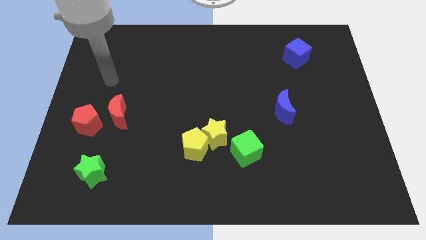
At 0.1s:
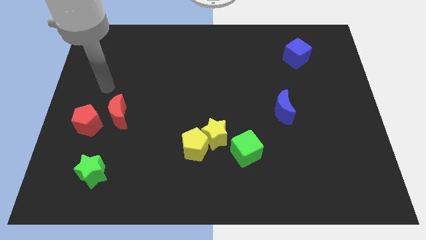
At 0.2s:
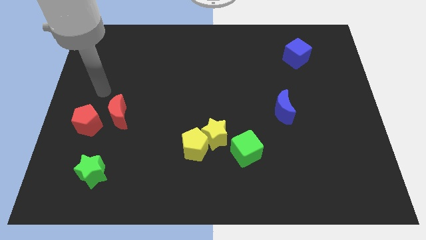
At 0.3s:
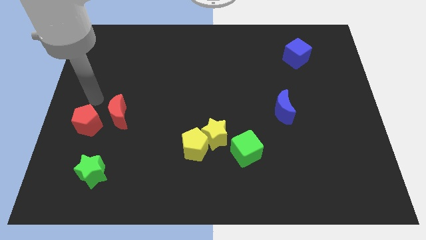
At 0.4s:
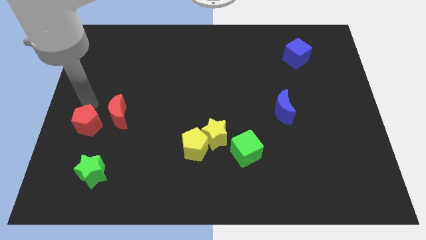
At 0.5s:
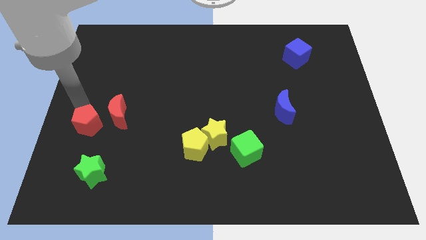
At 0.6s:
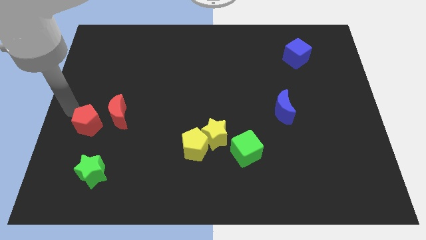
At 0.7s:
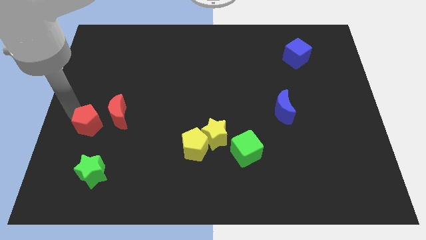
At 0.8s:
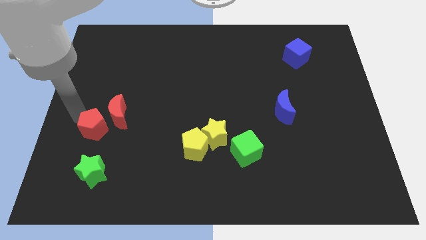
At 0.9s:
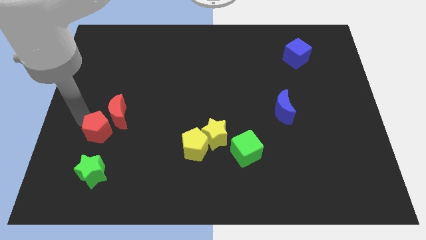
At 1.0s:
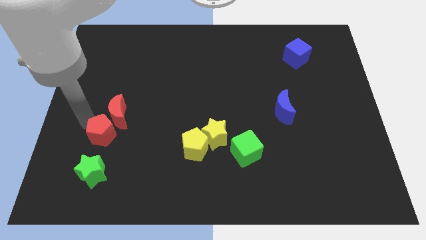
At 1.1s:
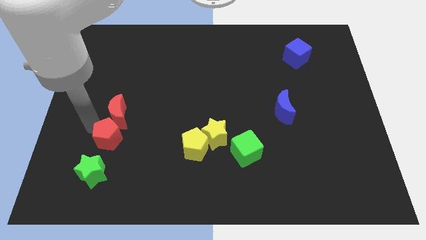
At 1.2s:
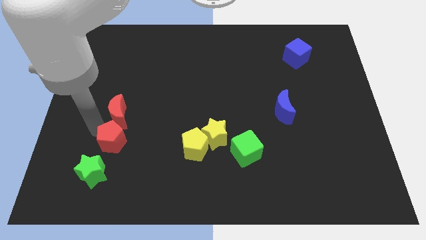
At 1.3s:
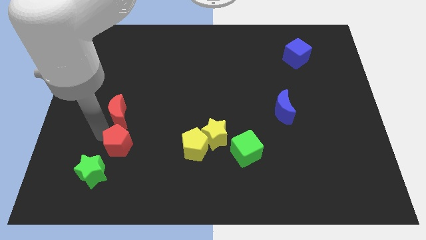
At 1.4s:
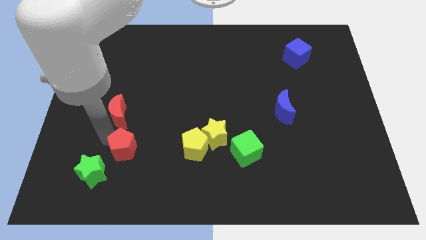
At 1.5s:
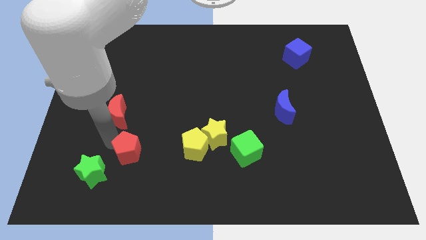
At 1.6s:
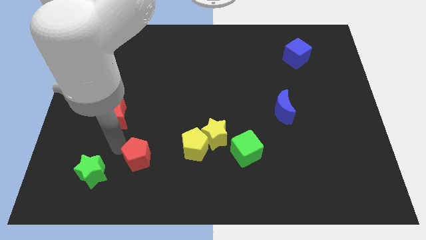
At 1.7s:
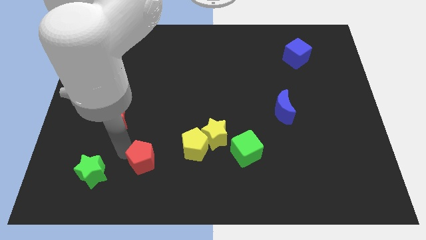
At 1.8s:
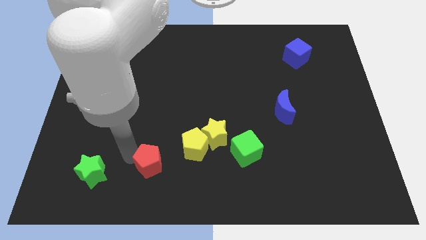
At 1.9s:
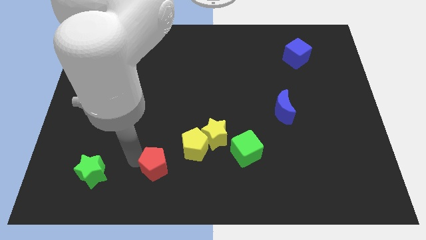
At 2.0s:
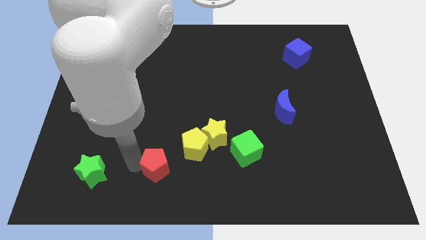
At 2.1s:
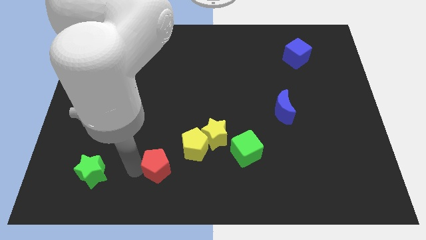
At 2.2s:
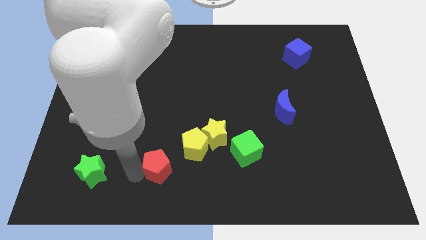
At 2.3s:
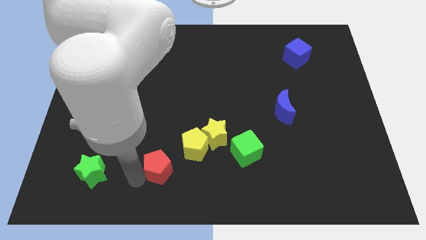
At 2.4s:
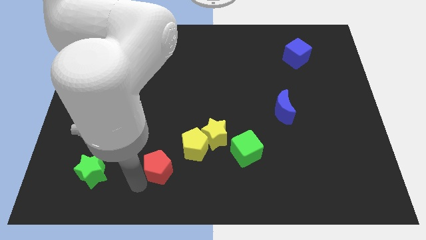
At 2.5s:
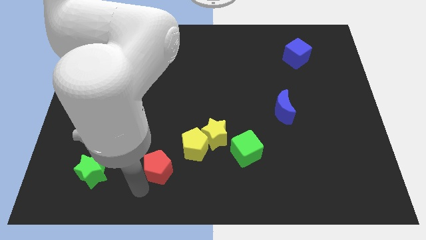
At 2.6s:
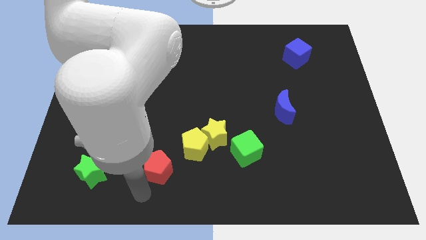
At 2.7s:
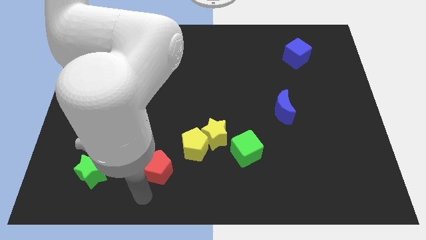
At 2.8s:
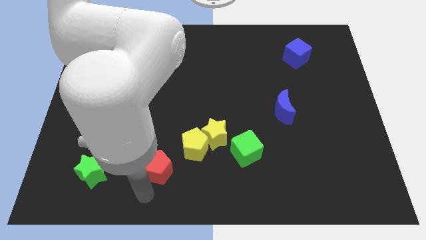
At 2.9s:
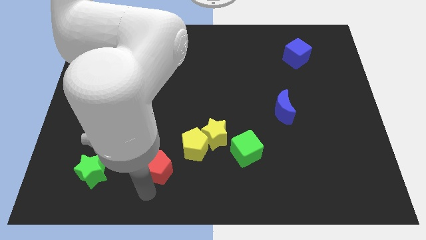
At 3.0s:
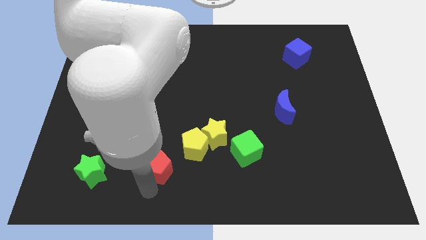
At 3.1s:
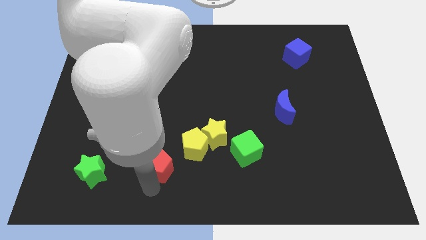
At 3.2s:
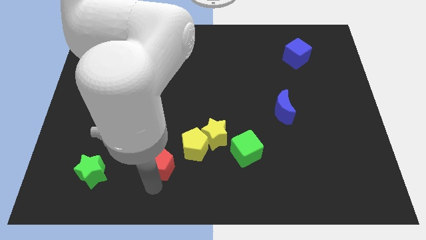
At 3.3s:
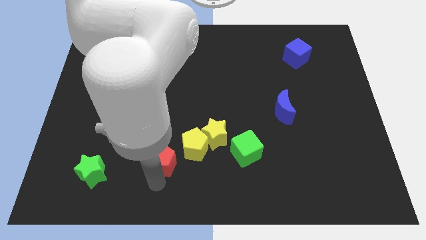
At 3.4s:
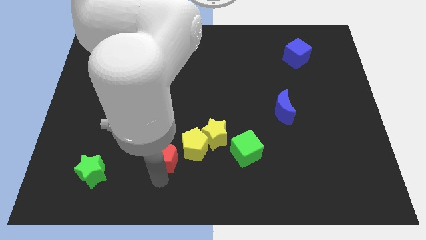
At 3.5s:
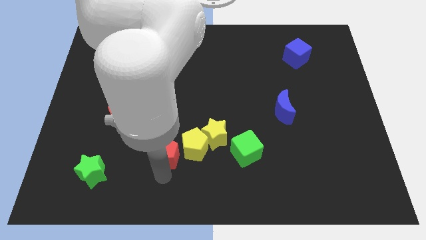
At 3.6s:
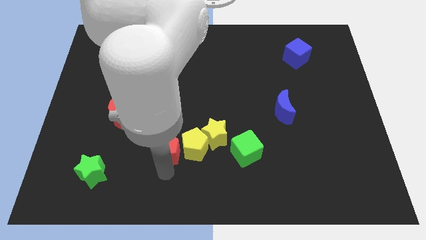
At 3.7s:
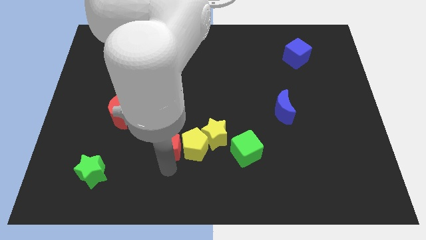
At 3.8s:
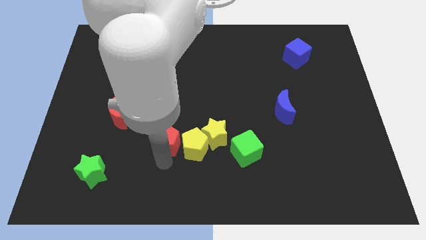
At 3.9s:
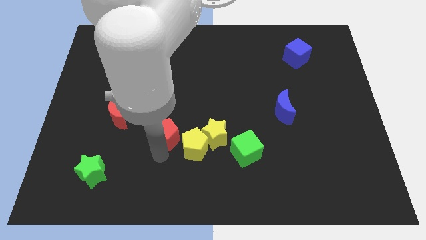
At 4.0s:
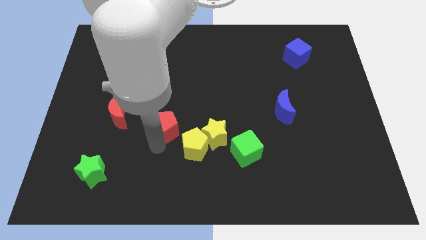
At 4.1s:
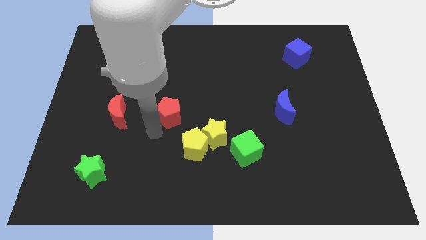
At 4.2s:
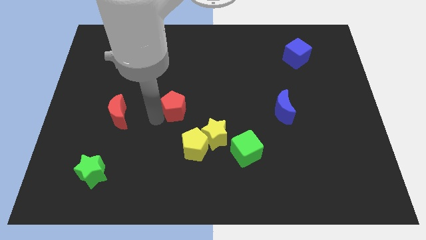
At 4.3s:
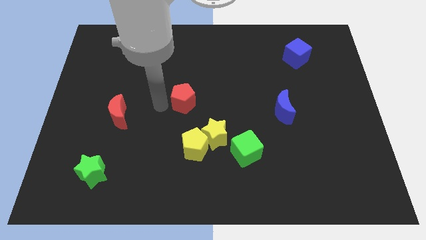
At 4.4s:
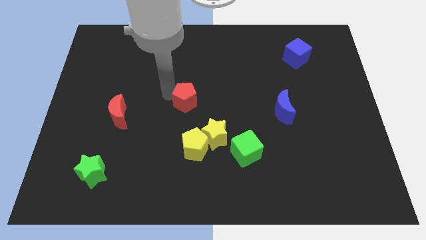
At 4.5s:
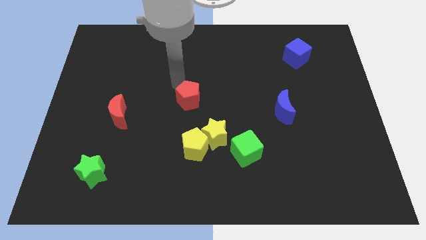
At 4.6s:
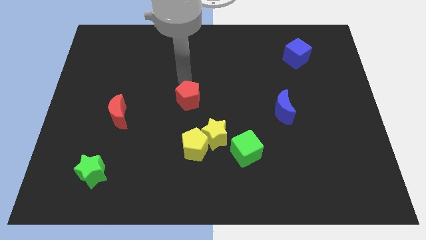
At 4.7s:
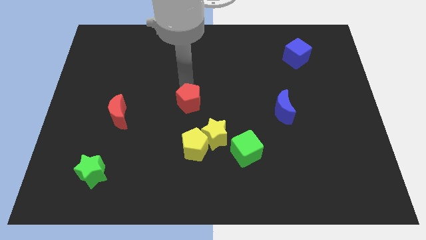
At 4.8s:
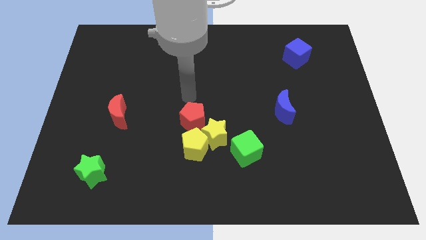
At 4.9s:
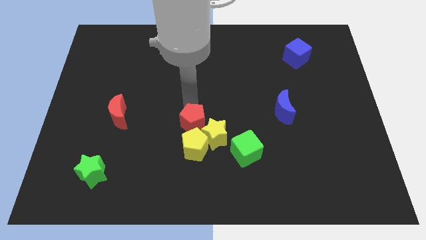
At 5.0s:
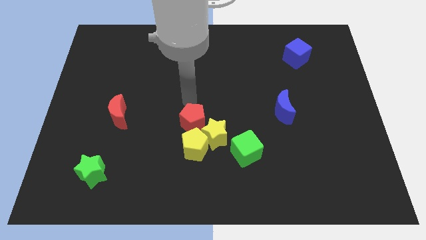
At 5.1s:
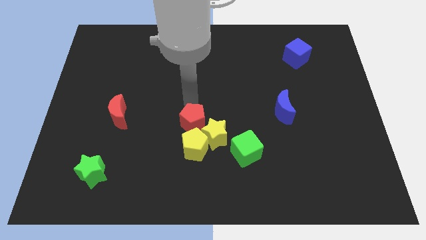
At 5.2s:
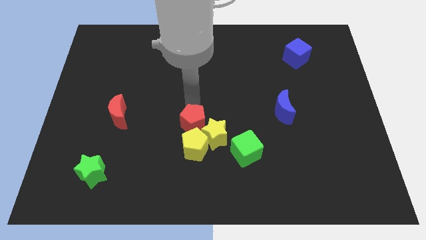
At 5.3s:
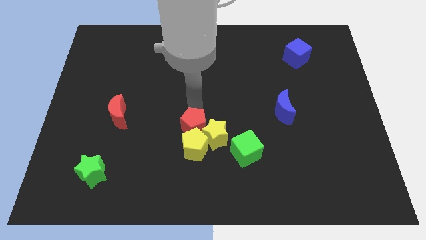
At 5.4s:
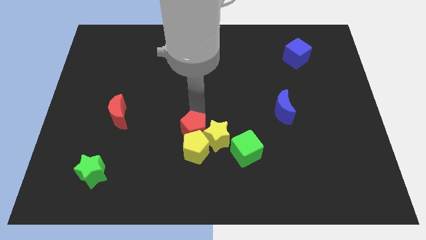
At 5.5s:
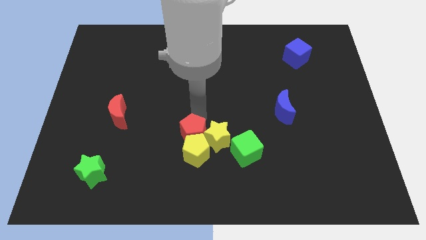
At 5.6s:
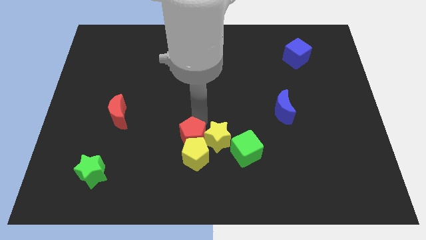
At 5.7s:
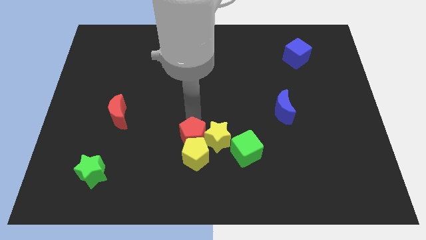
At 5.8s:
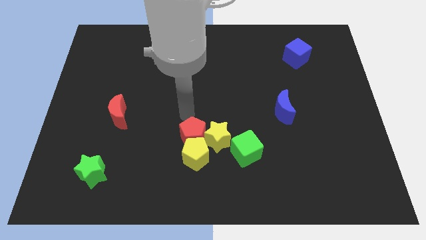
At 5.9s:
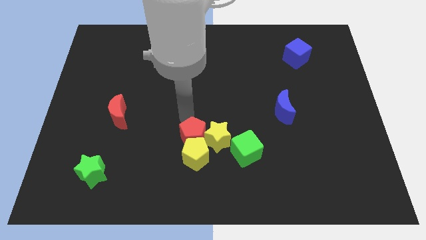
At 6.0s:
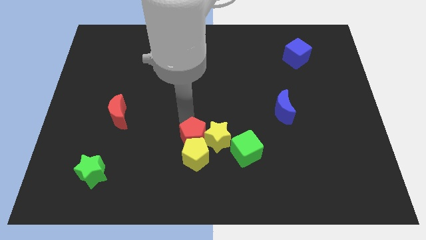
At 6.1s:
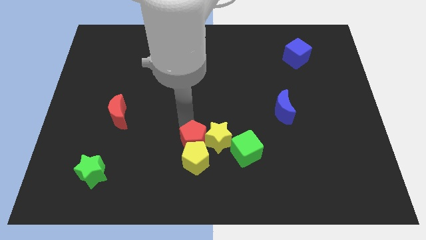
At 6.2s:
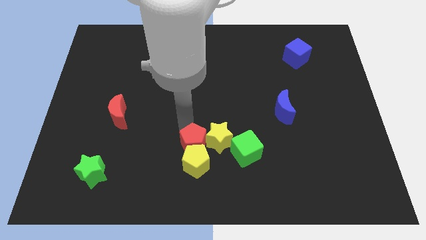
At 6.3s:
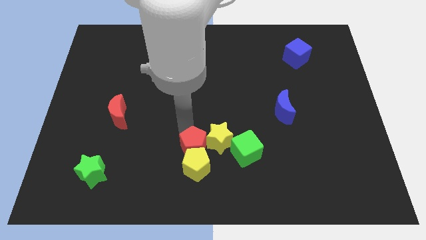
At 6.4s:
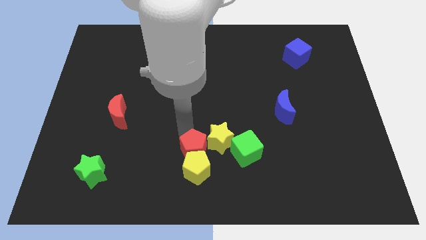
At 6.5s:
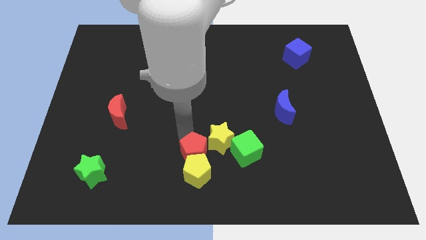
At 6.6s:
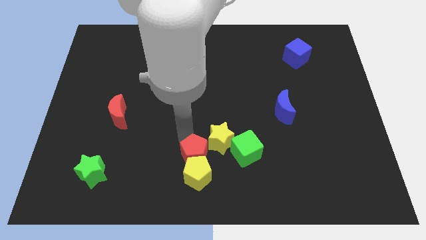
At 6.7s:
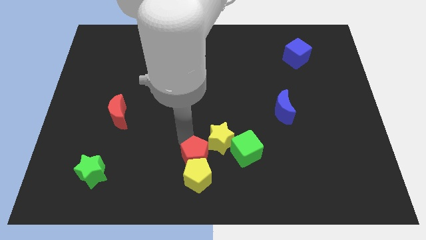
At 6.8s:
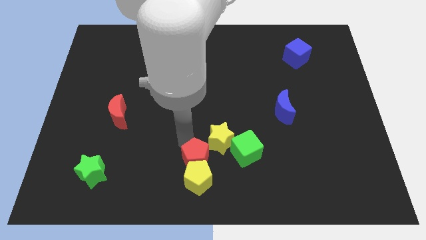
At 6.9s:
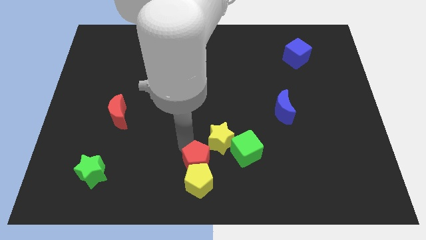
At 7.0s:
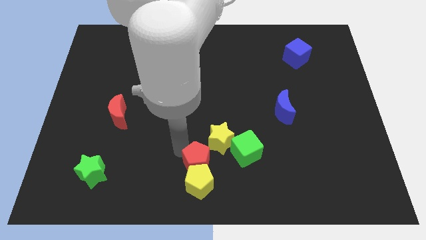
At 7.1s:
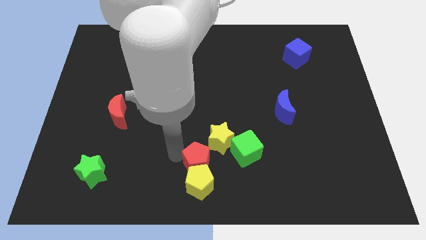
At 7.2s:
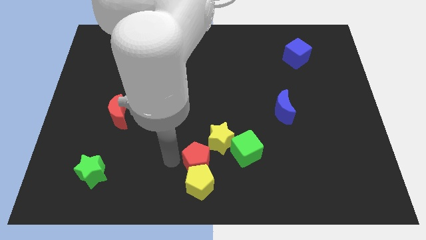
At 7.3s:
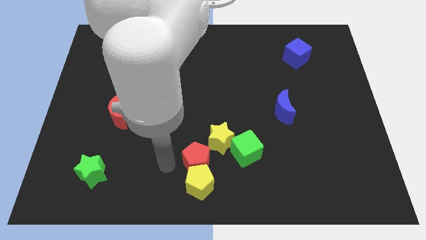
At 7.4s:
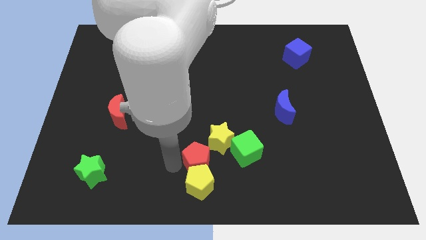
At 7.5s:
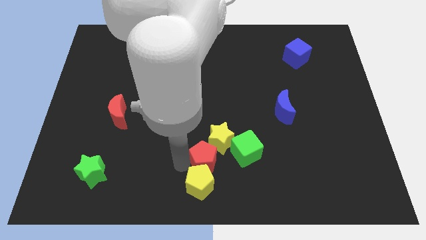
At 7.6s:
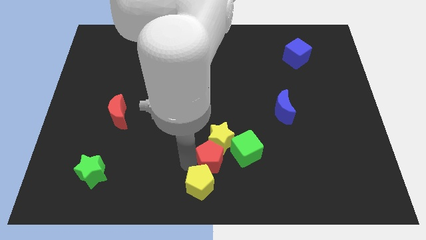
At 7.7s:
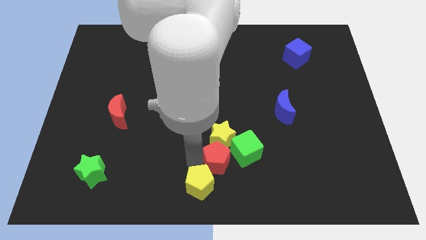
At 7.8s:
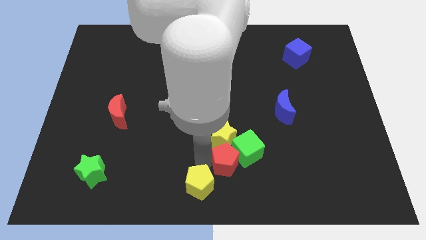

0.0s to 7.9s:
put the red pentagon next to the green cube
